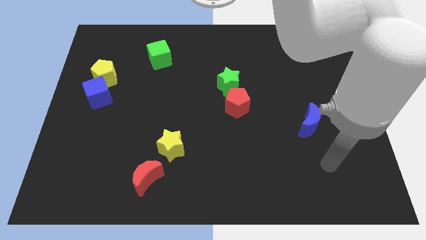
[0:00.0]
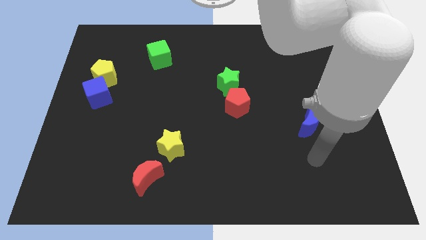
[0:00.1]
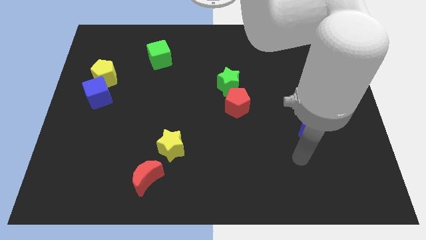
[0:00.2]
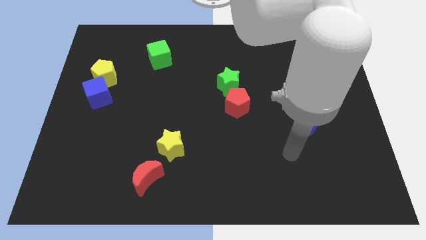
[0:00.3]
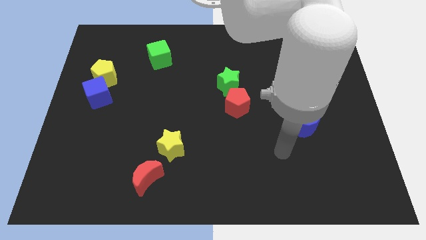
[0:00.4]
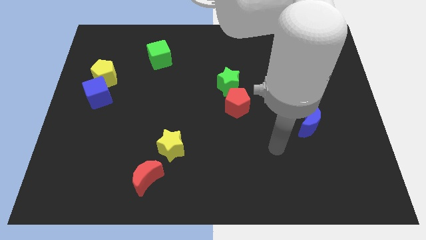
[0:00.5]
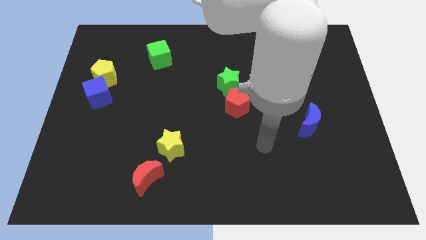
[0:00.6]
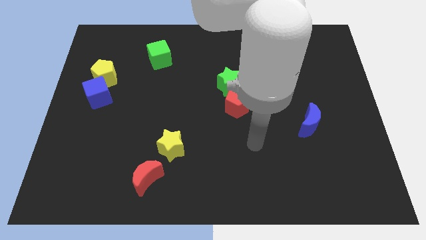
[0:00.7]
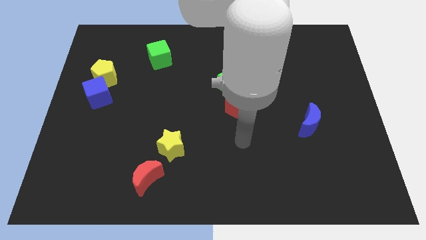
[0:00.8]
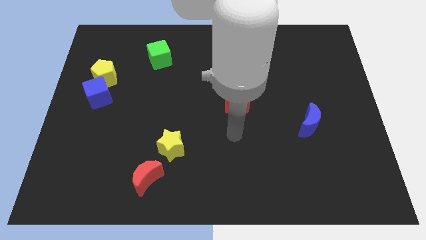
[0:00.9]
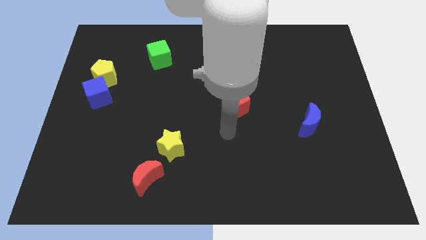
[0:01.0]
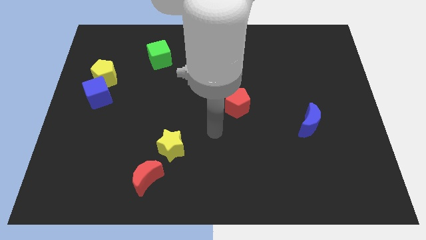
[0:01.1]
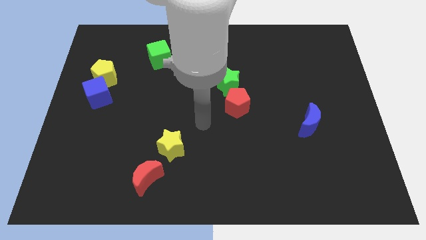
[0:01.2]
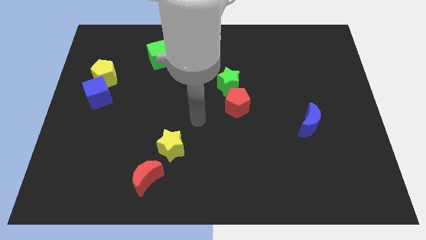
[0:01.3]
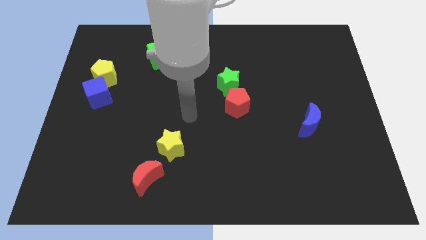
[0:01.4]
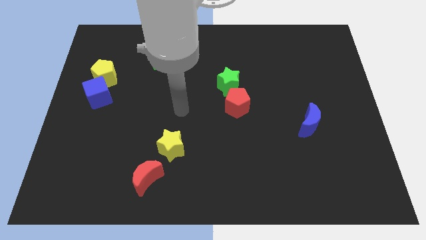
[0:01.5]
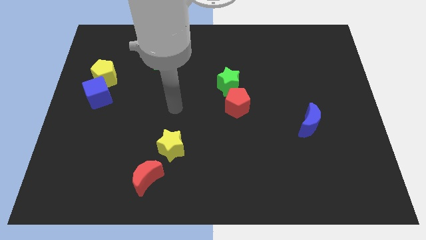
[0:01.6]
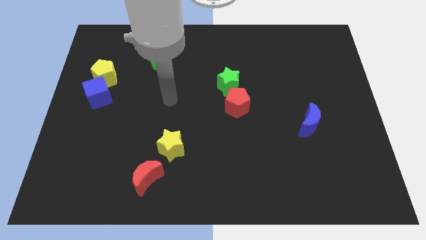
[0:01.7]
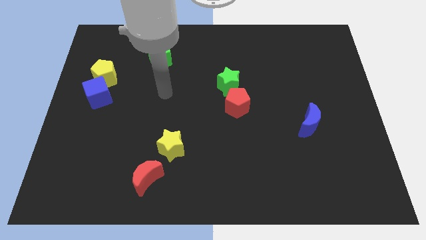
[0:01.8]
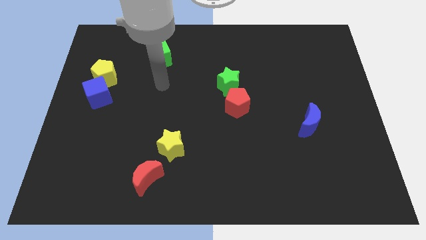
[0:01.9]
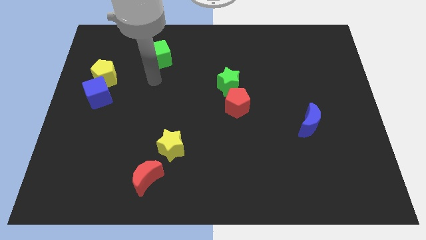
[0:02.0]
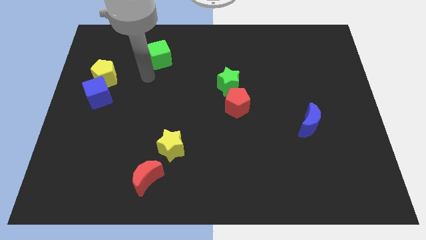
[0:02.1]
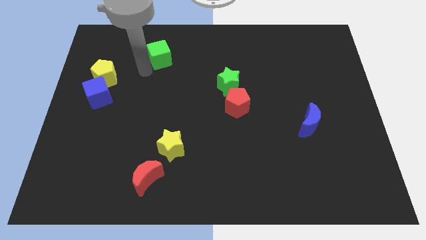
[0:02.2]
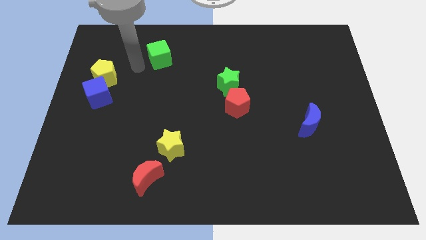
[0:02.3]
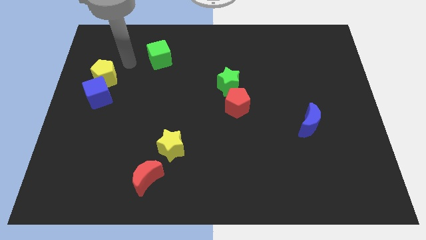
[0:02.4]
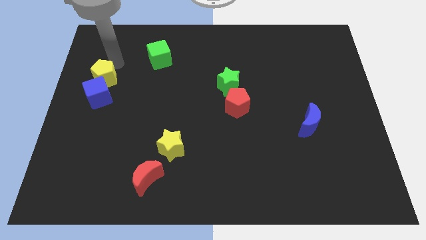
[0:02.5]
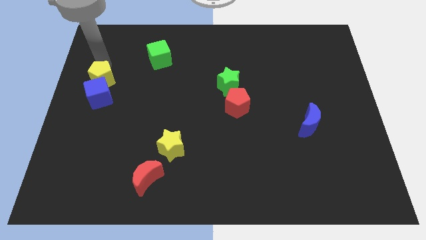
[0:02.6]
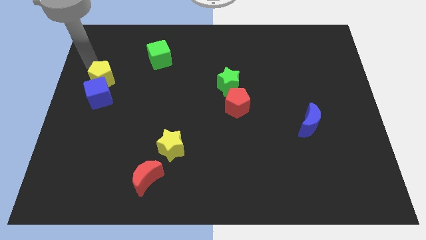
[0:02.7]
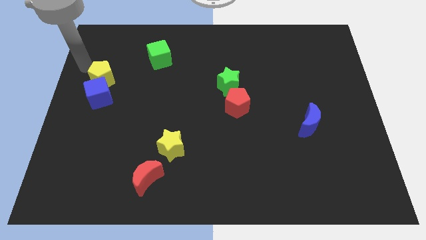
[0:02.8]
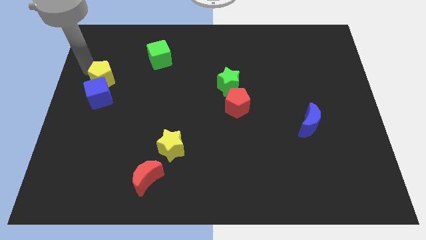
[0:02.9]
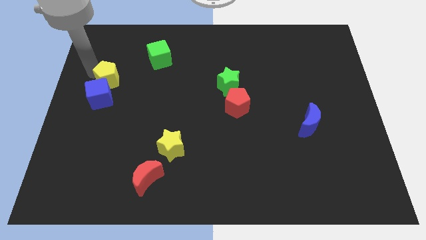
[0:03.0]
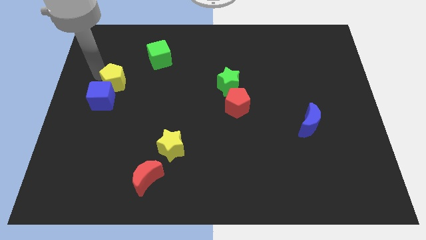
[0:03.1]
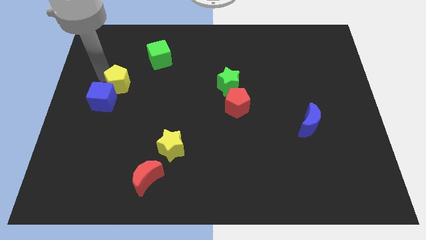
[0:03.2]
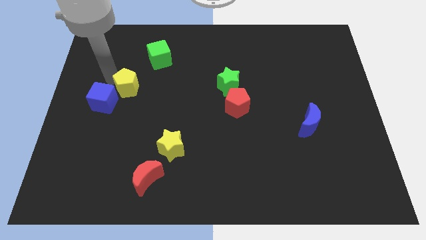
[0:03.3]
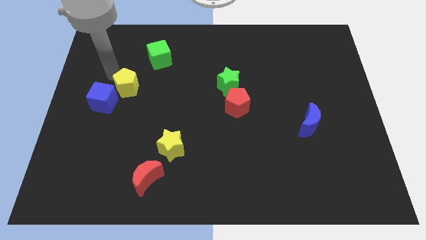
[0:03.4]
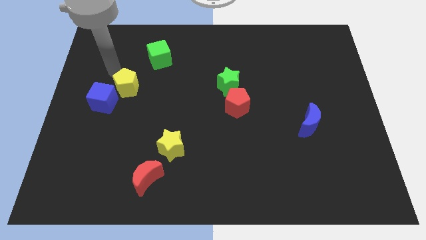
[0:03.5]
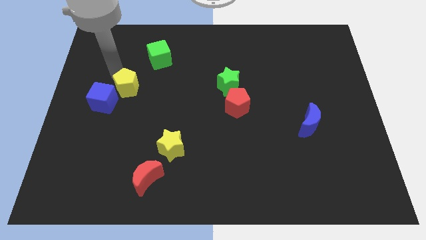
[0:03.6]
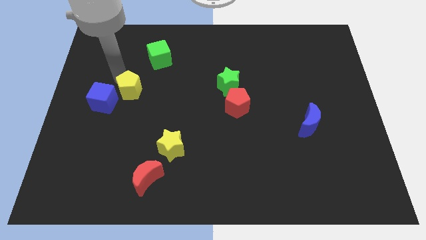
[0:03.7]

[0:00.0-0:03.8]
slightly move the yellow pentagon down and right

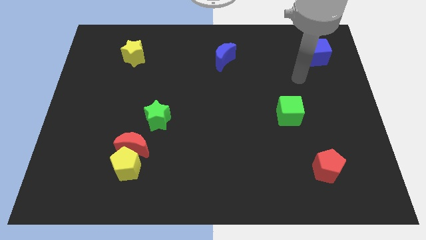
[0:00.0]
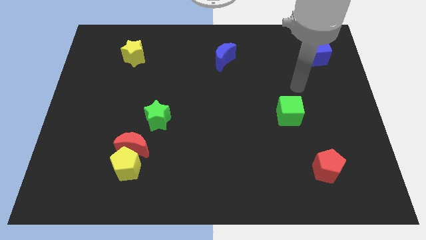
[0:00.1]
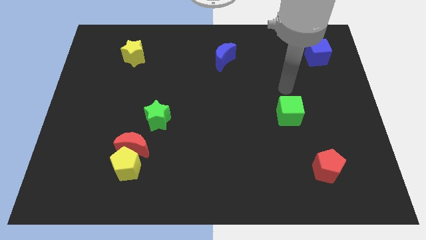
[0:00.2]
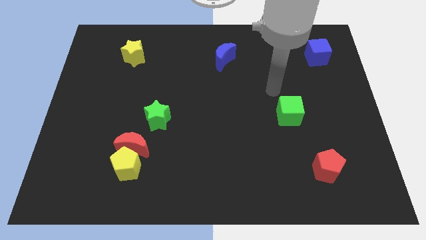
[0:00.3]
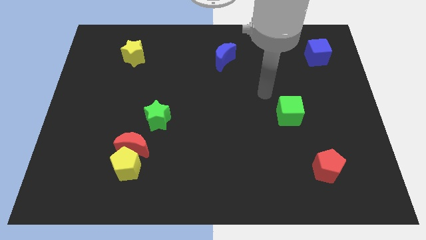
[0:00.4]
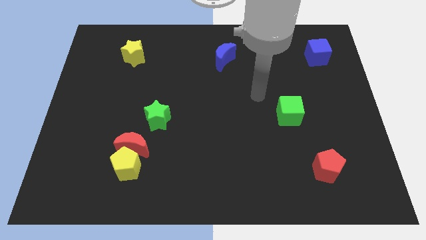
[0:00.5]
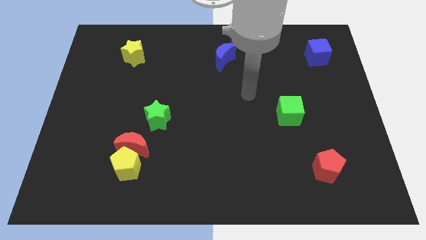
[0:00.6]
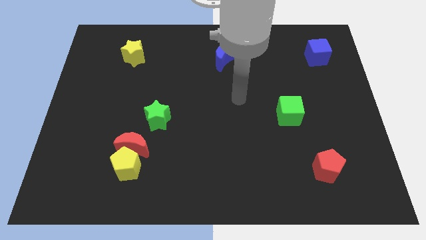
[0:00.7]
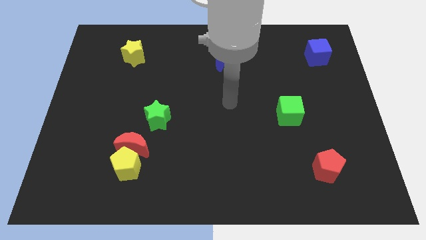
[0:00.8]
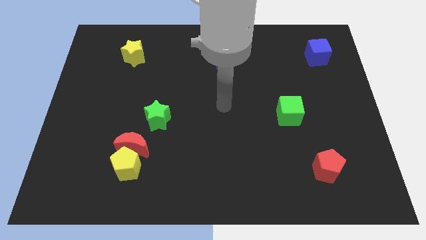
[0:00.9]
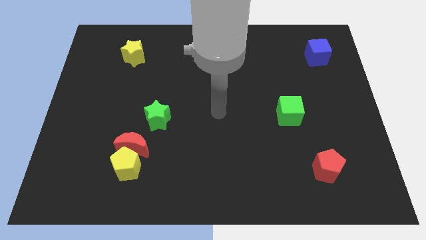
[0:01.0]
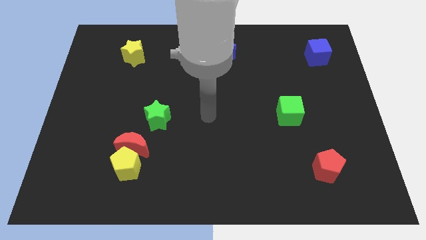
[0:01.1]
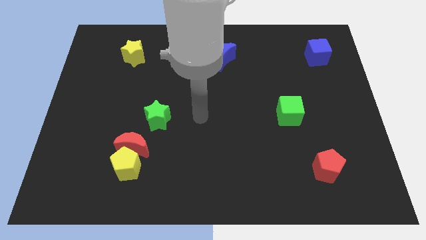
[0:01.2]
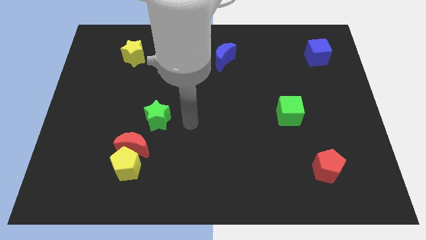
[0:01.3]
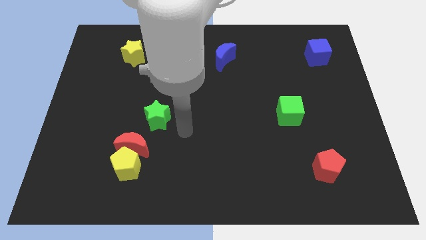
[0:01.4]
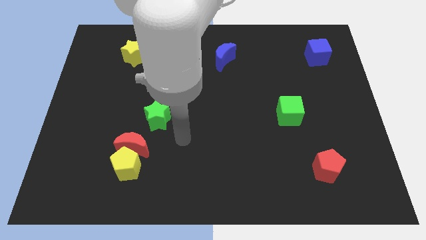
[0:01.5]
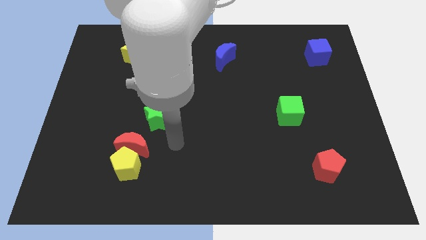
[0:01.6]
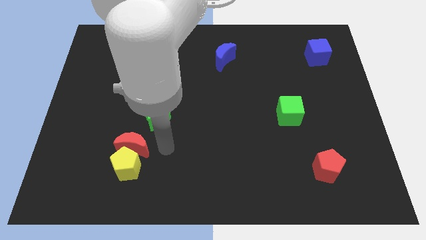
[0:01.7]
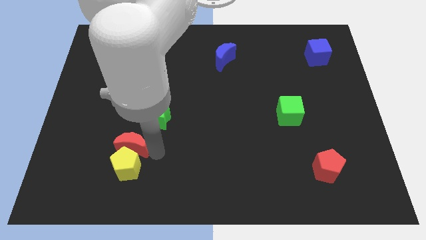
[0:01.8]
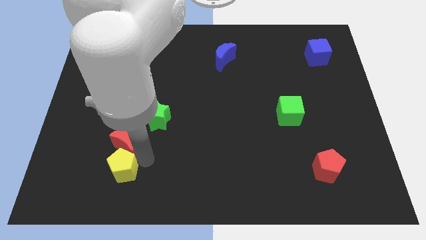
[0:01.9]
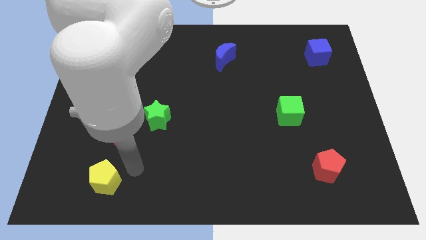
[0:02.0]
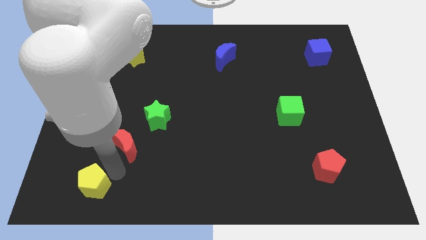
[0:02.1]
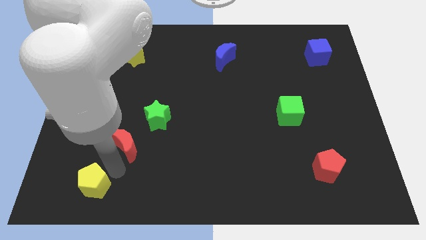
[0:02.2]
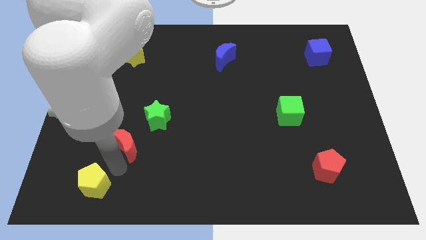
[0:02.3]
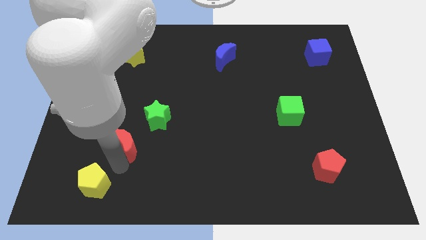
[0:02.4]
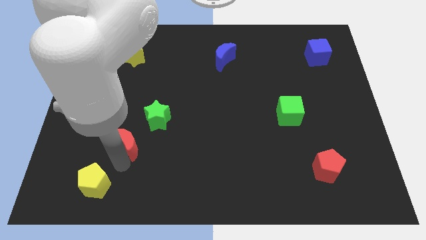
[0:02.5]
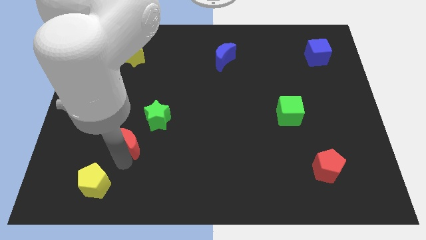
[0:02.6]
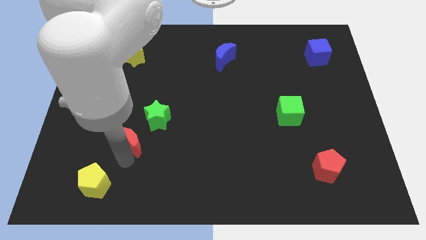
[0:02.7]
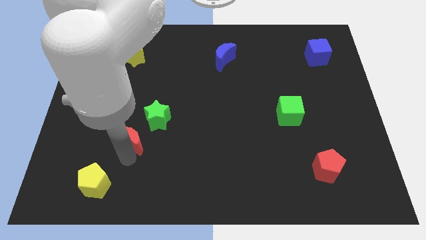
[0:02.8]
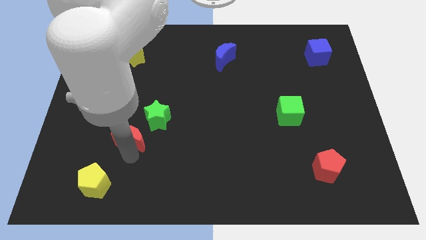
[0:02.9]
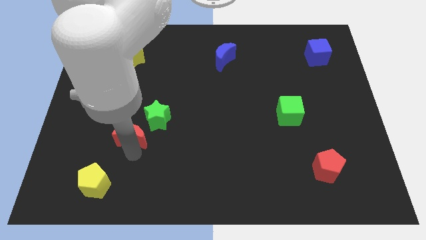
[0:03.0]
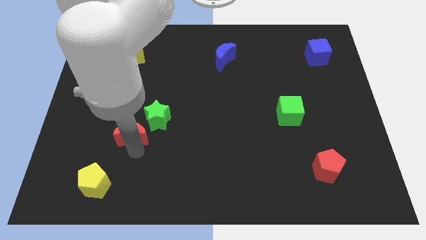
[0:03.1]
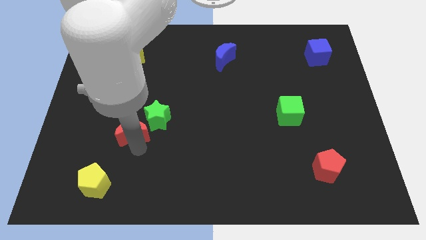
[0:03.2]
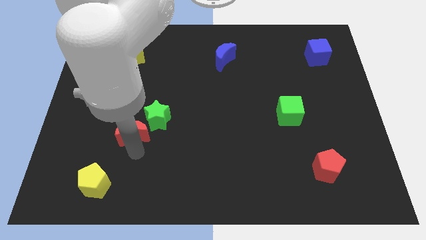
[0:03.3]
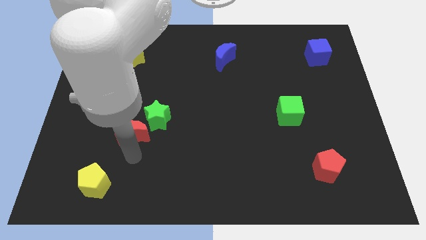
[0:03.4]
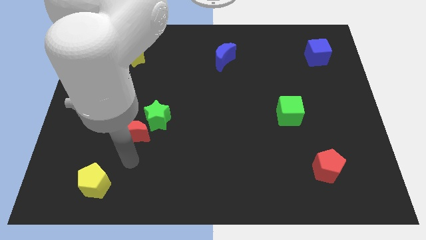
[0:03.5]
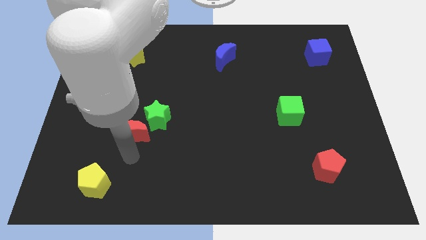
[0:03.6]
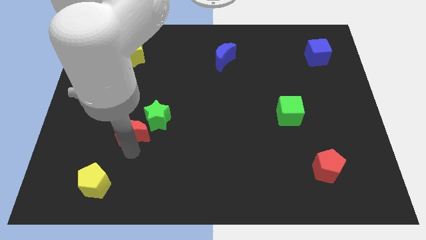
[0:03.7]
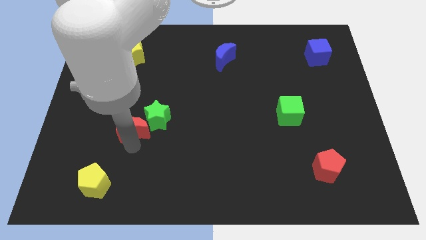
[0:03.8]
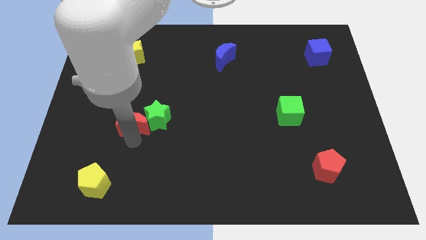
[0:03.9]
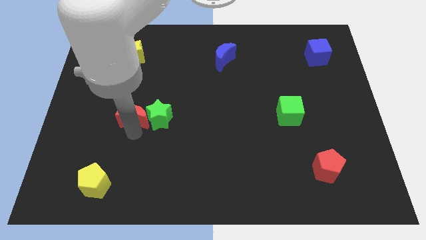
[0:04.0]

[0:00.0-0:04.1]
push the red moon upwards a little

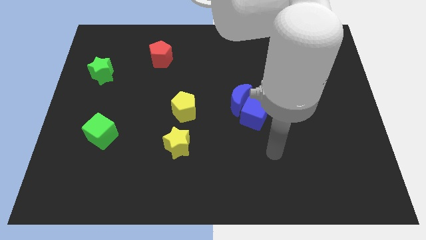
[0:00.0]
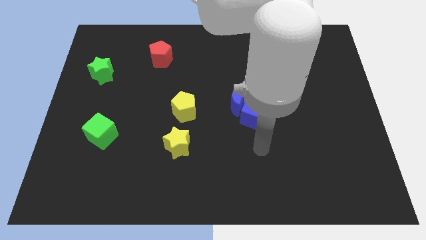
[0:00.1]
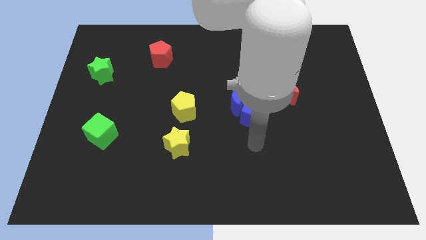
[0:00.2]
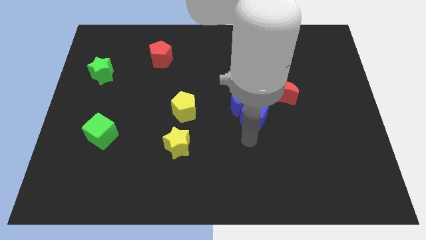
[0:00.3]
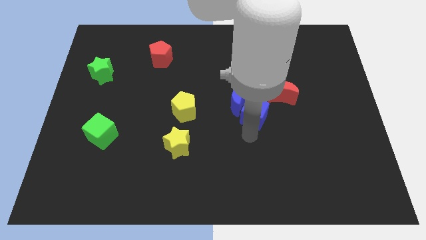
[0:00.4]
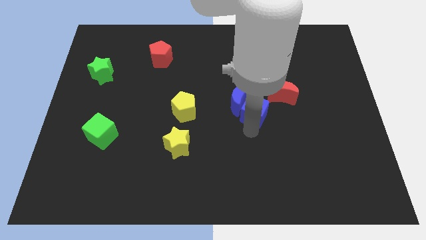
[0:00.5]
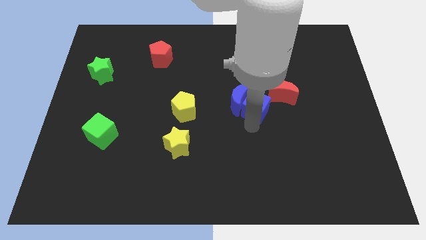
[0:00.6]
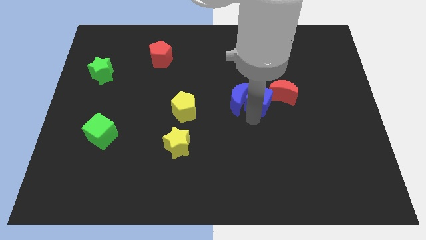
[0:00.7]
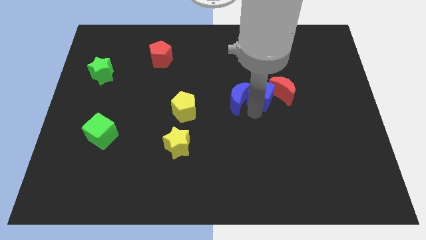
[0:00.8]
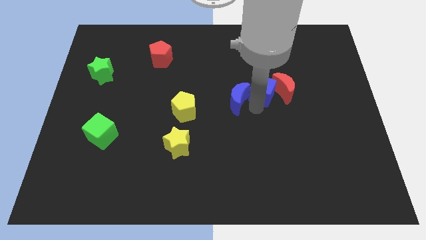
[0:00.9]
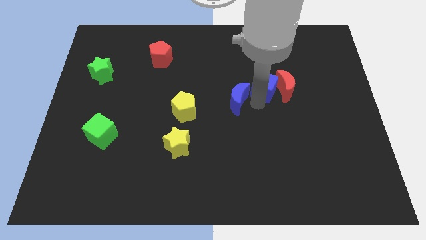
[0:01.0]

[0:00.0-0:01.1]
push the blue cube up and then to the right a little
